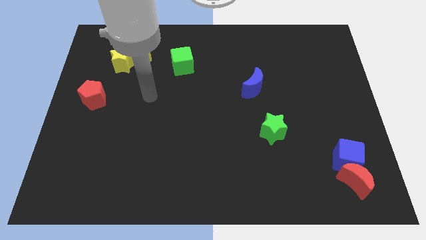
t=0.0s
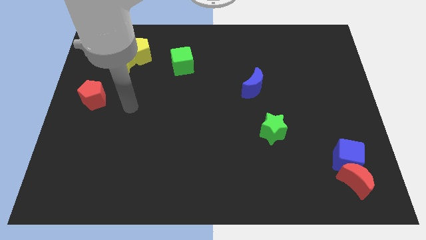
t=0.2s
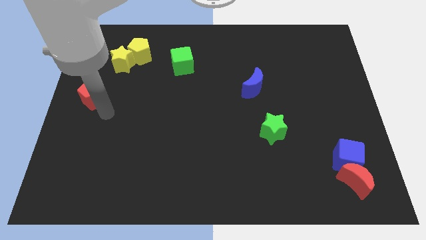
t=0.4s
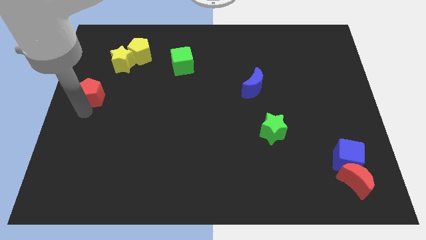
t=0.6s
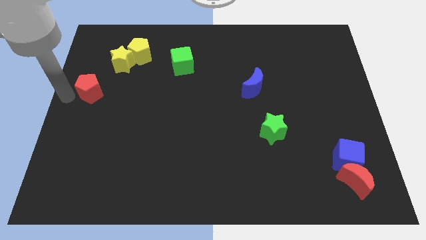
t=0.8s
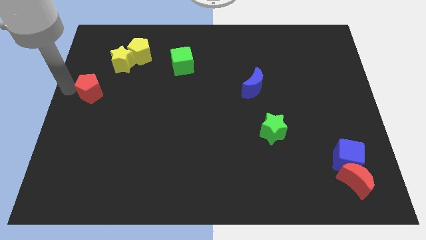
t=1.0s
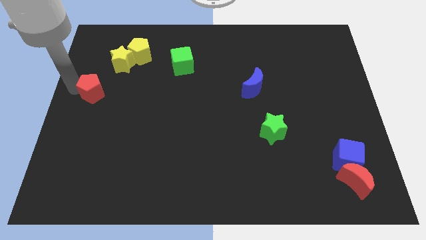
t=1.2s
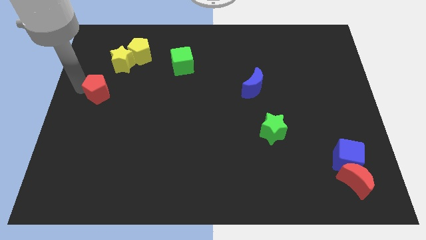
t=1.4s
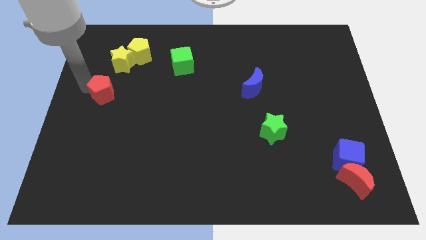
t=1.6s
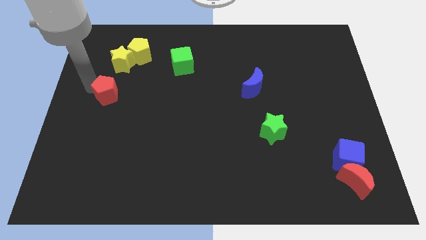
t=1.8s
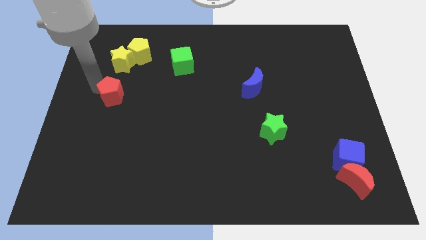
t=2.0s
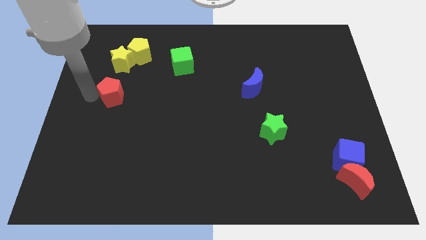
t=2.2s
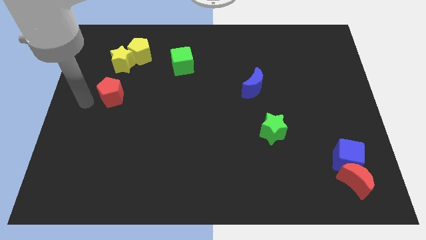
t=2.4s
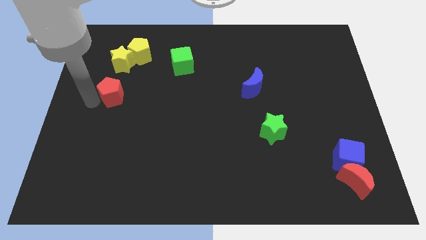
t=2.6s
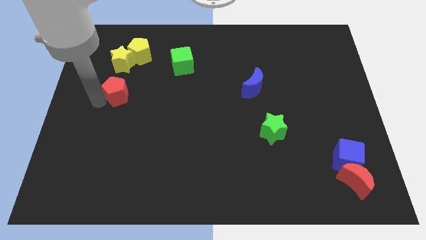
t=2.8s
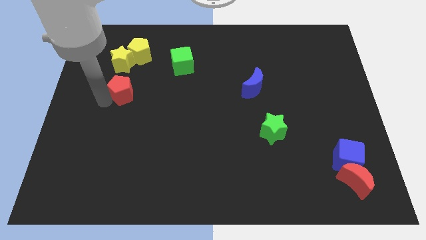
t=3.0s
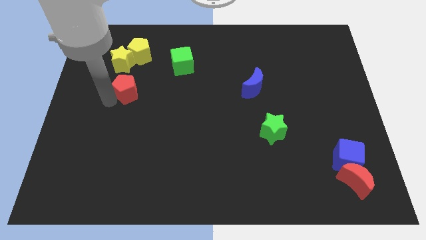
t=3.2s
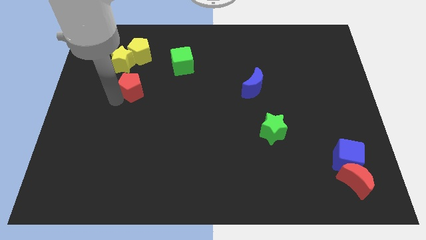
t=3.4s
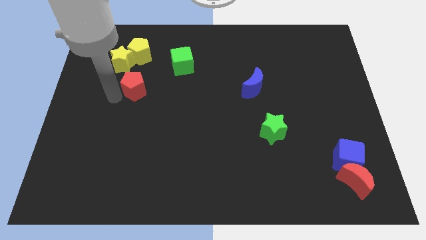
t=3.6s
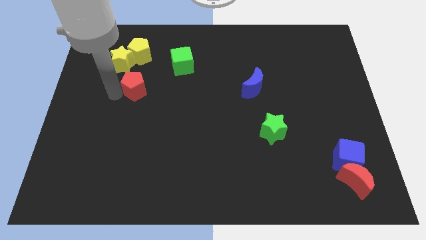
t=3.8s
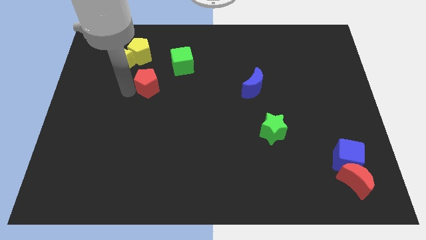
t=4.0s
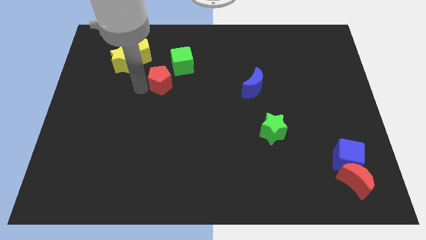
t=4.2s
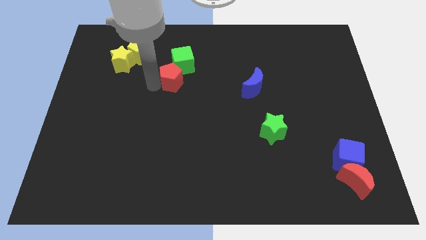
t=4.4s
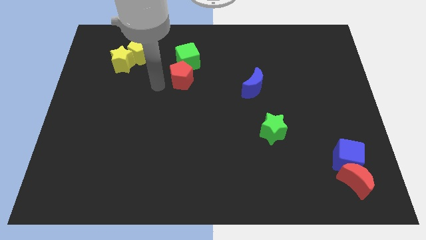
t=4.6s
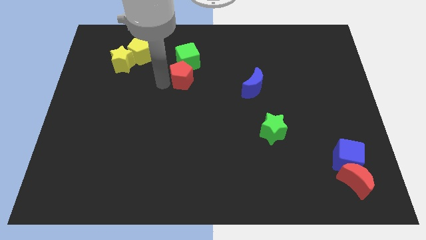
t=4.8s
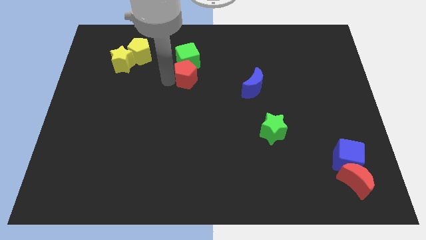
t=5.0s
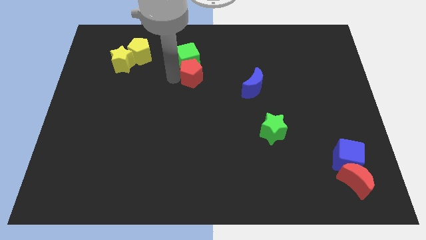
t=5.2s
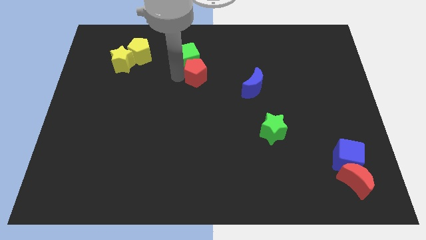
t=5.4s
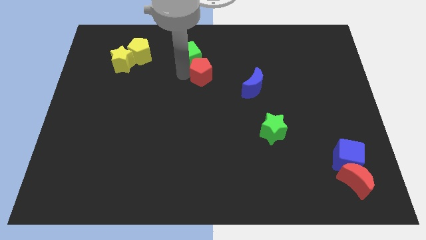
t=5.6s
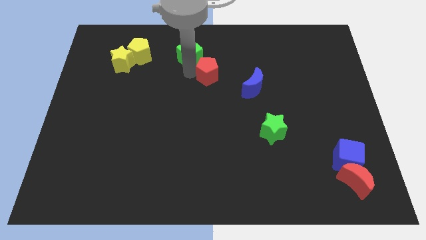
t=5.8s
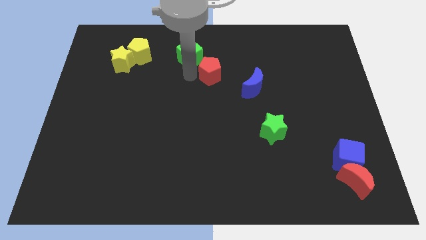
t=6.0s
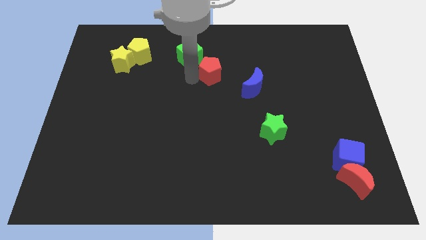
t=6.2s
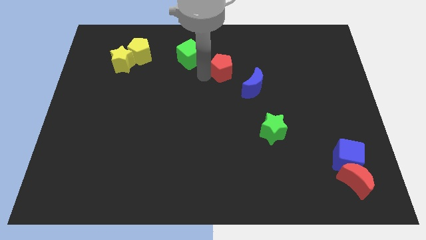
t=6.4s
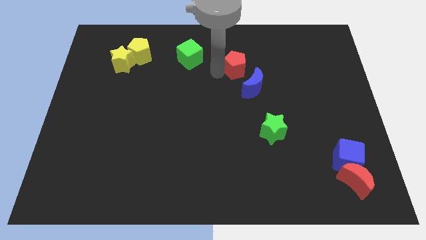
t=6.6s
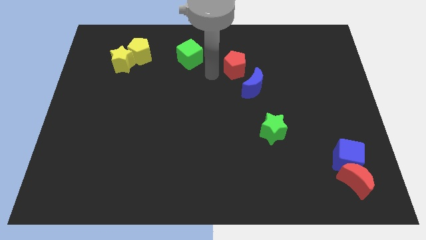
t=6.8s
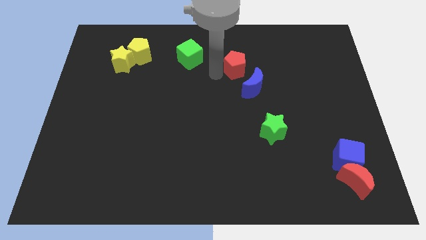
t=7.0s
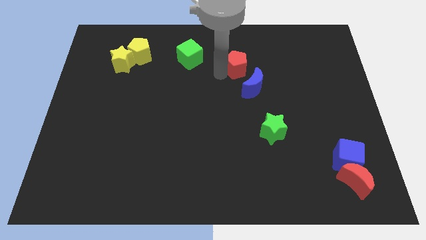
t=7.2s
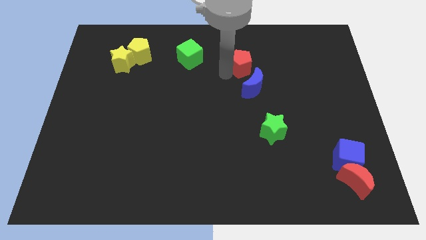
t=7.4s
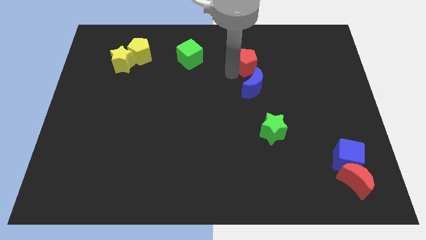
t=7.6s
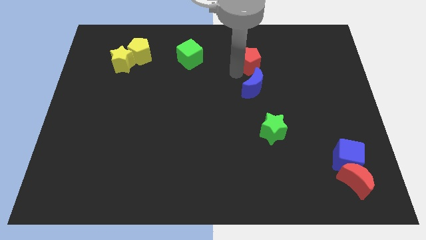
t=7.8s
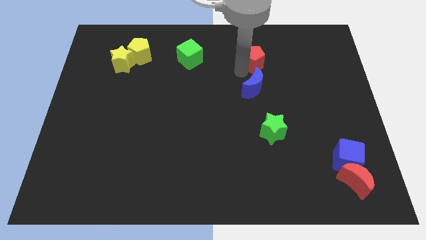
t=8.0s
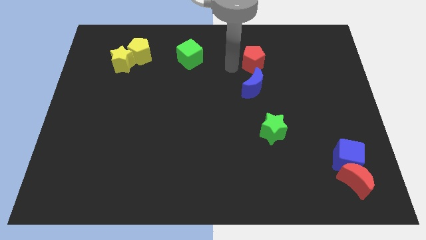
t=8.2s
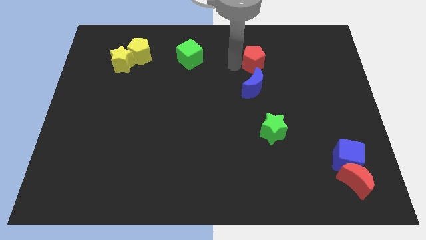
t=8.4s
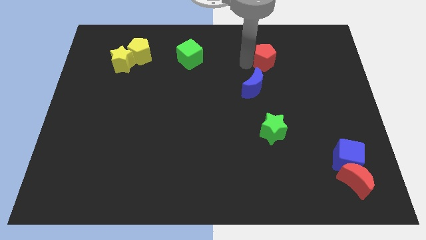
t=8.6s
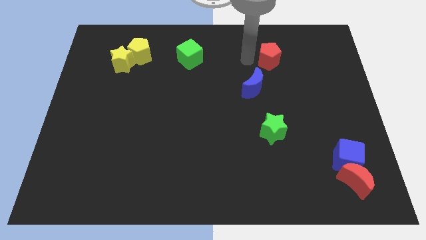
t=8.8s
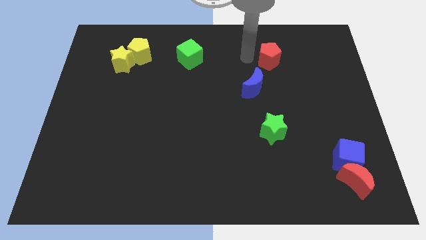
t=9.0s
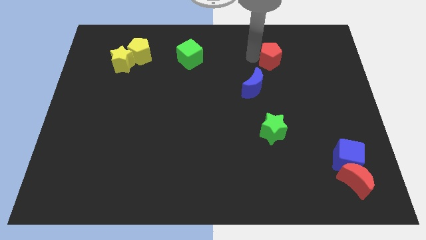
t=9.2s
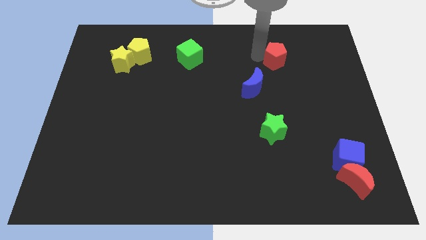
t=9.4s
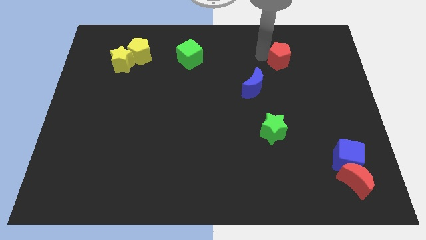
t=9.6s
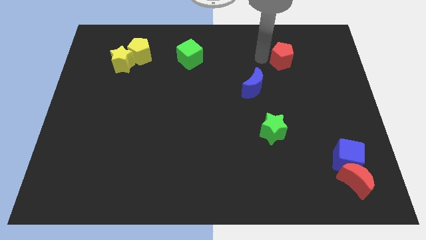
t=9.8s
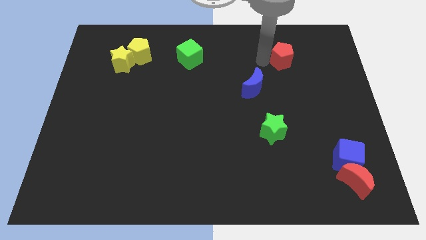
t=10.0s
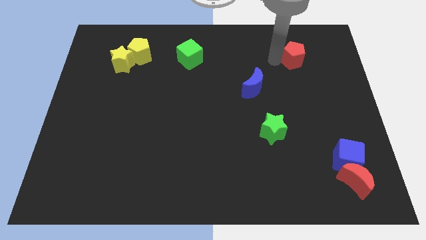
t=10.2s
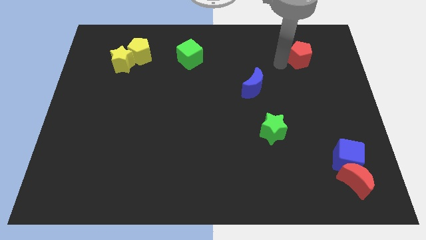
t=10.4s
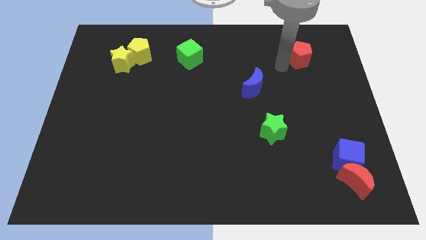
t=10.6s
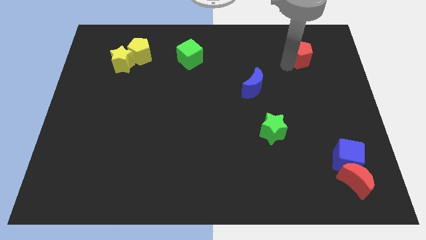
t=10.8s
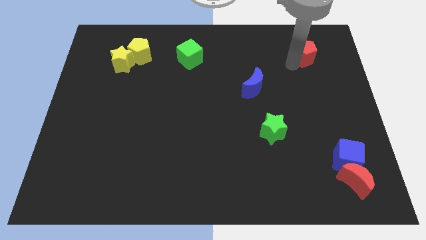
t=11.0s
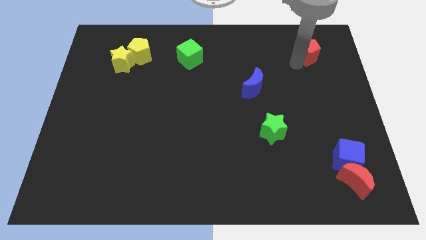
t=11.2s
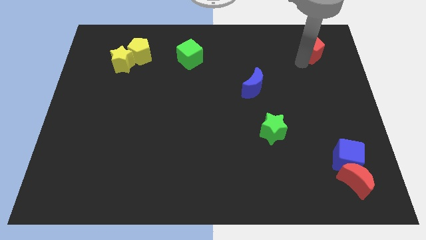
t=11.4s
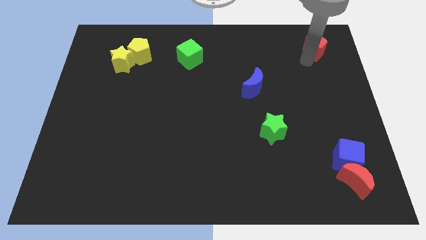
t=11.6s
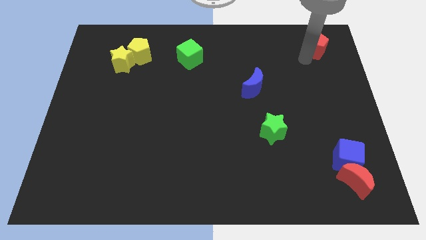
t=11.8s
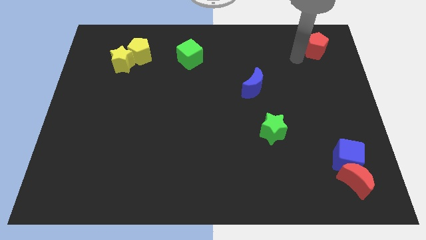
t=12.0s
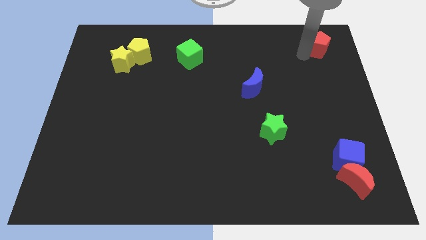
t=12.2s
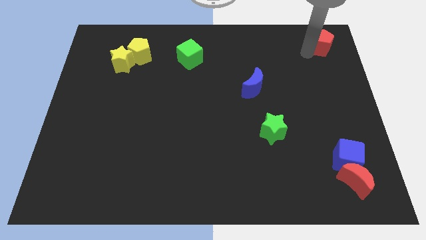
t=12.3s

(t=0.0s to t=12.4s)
slide the red pentagon to the top right corner

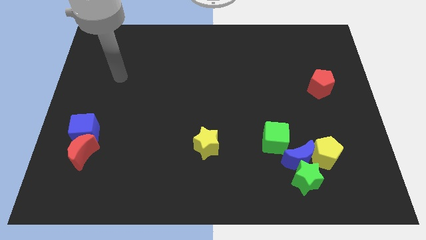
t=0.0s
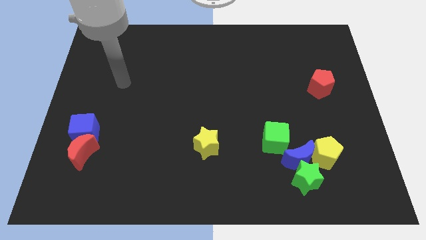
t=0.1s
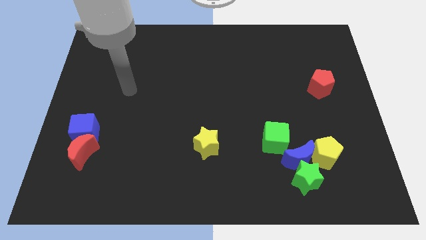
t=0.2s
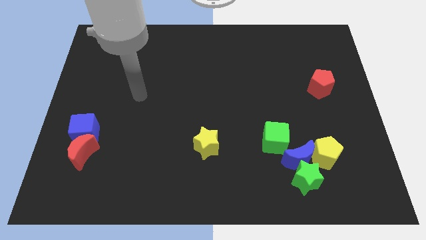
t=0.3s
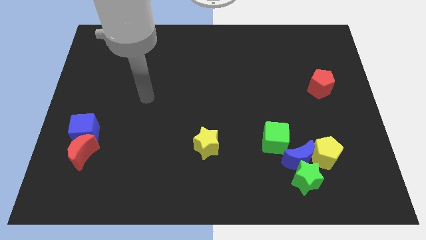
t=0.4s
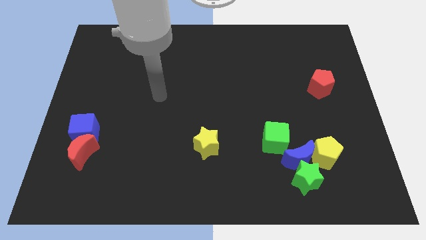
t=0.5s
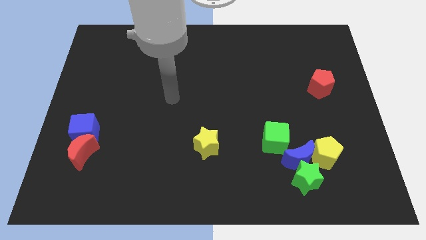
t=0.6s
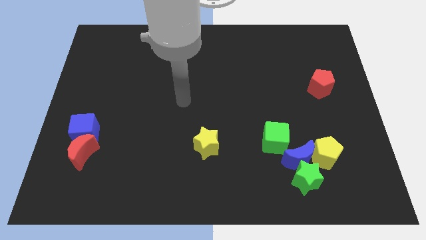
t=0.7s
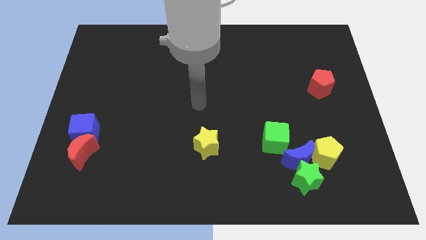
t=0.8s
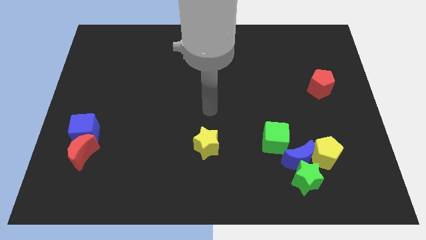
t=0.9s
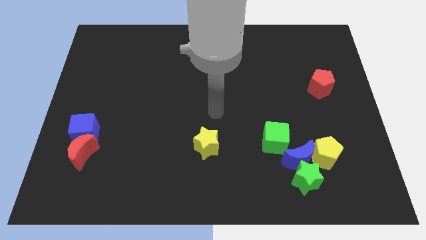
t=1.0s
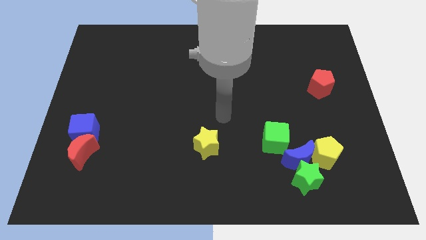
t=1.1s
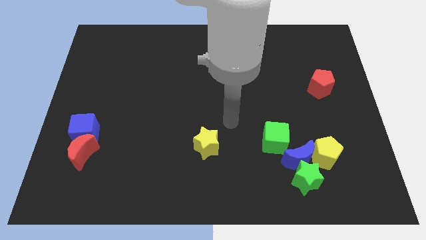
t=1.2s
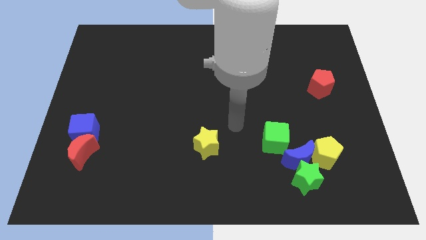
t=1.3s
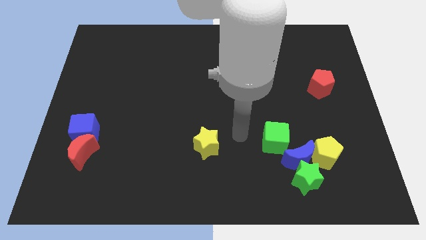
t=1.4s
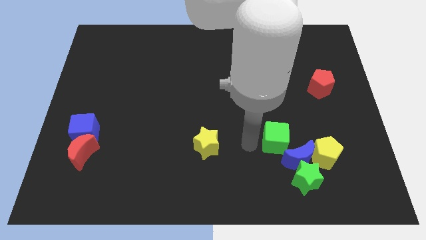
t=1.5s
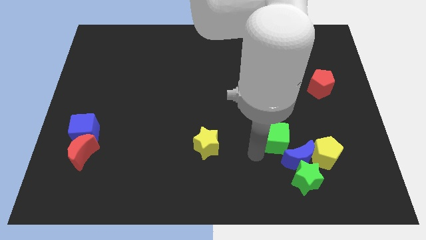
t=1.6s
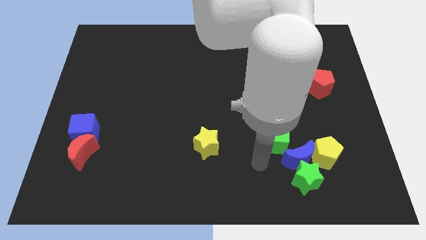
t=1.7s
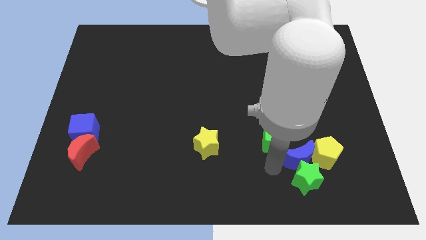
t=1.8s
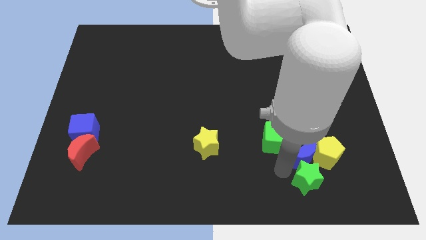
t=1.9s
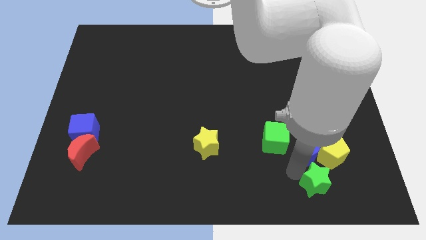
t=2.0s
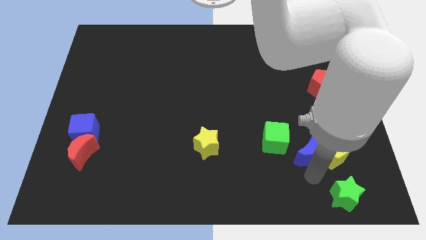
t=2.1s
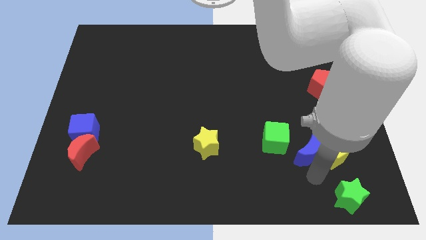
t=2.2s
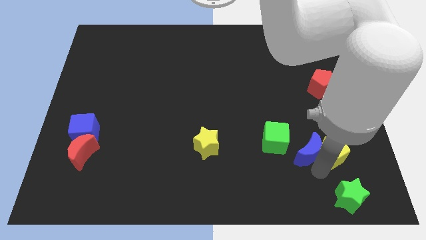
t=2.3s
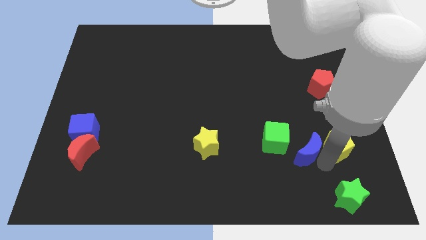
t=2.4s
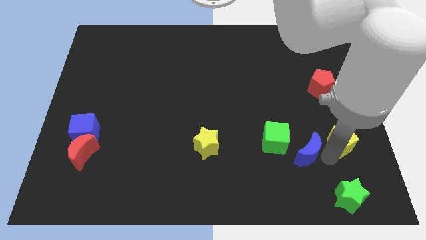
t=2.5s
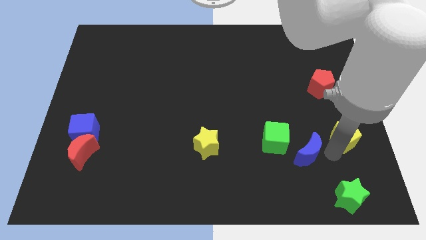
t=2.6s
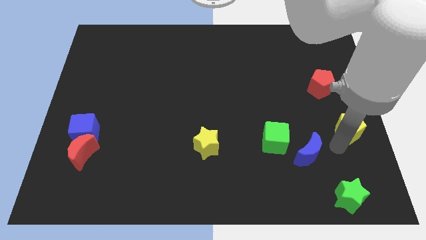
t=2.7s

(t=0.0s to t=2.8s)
push the yellow pentagon to the right side
